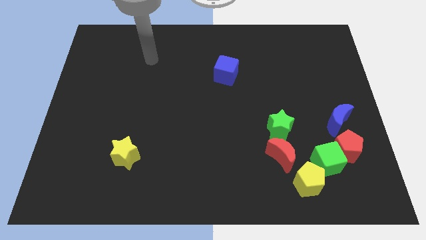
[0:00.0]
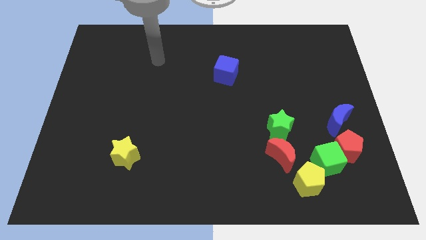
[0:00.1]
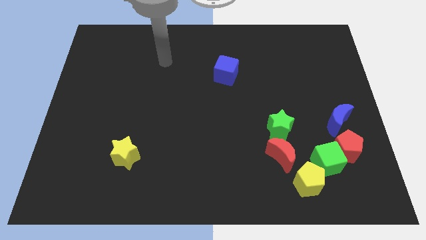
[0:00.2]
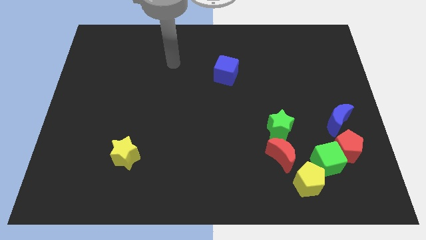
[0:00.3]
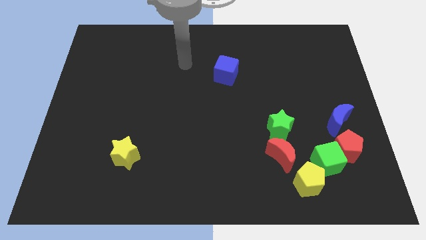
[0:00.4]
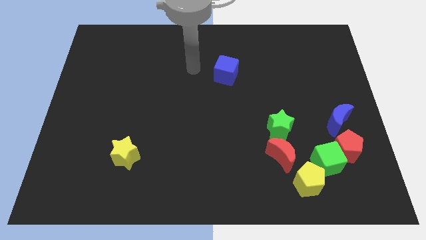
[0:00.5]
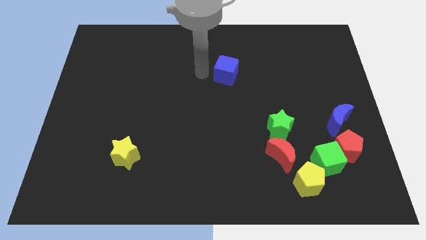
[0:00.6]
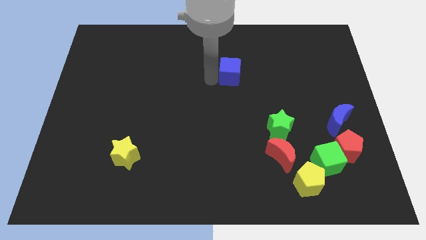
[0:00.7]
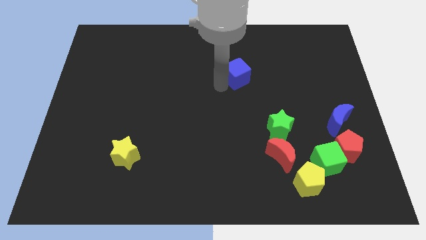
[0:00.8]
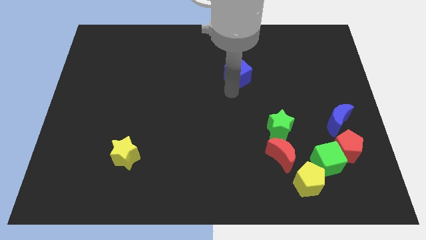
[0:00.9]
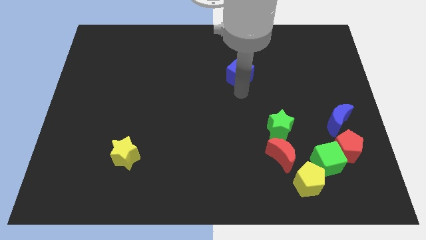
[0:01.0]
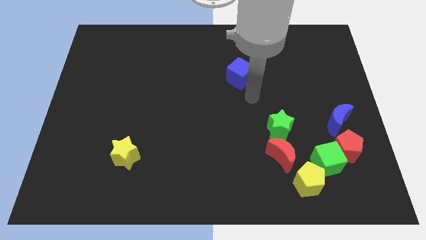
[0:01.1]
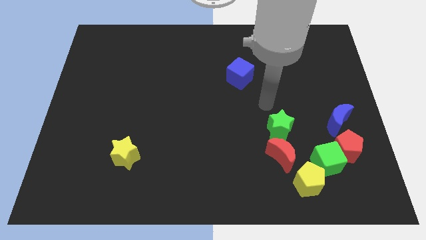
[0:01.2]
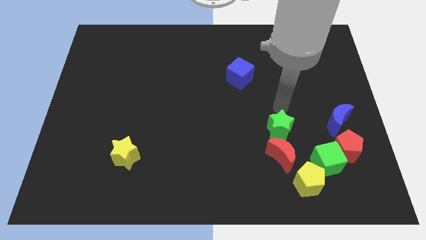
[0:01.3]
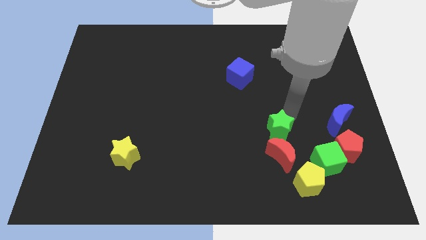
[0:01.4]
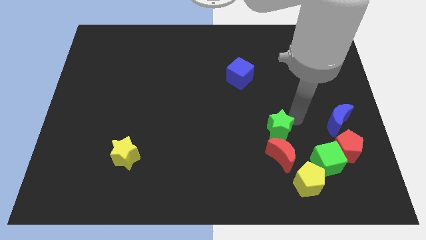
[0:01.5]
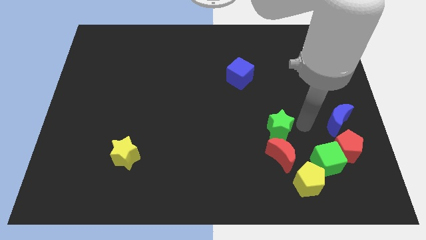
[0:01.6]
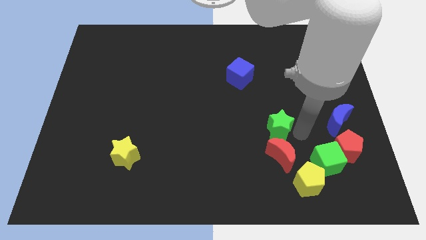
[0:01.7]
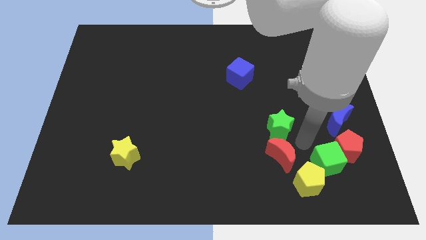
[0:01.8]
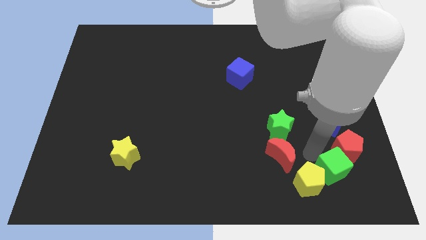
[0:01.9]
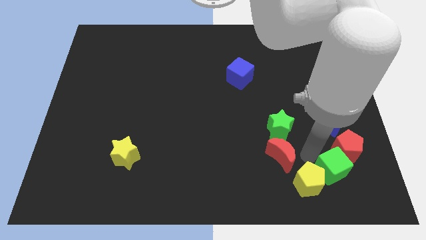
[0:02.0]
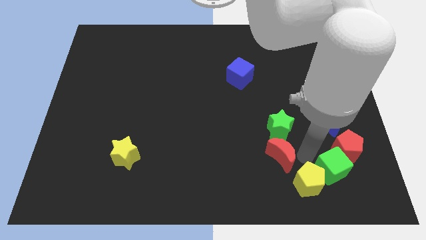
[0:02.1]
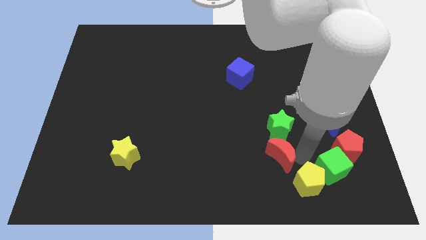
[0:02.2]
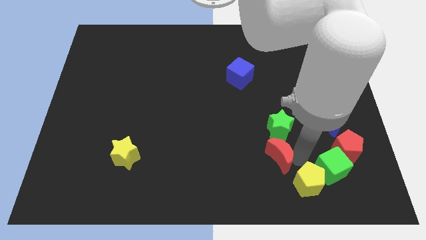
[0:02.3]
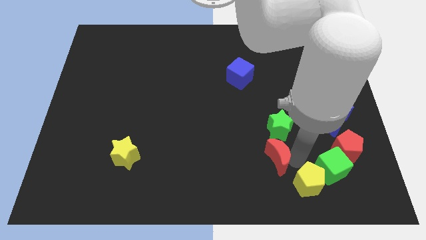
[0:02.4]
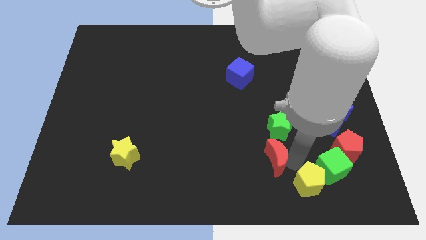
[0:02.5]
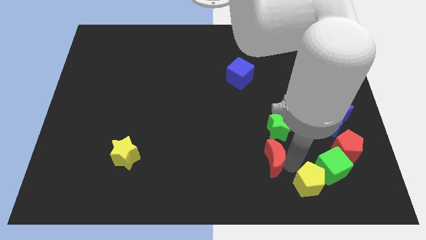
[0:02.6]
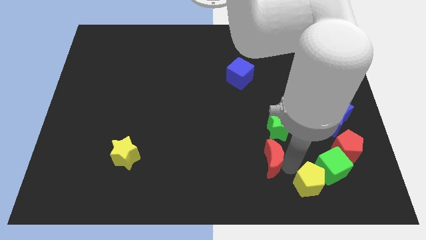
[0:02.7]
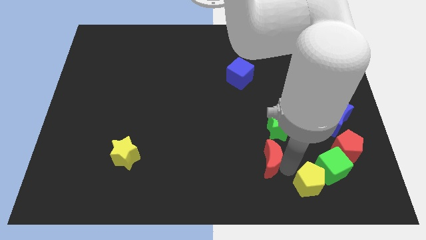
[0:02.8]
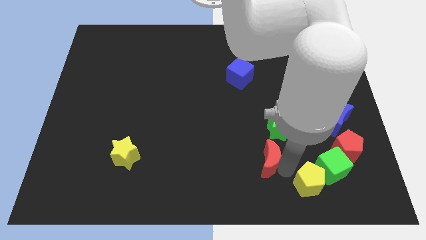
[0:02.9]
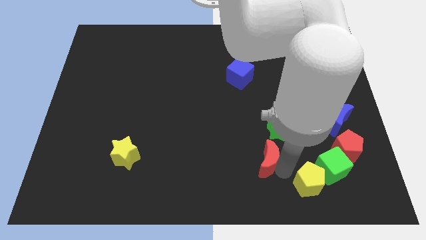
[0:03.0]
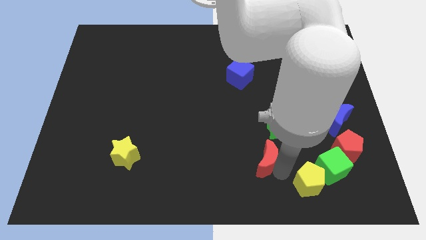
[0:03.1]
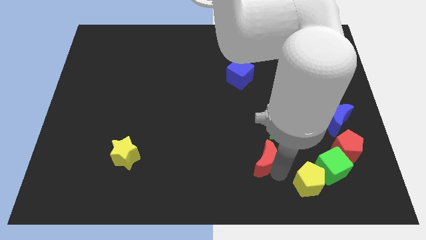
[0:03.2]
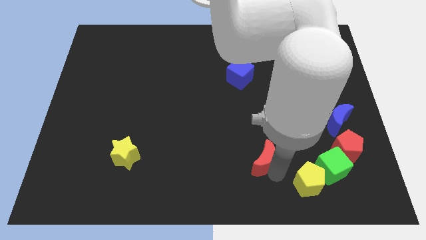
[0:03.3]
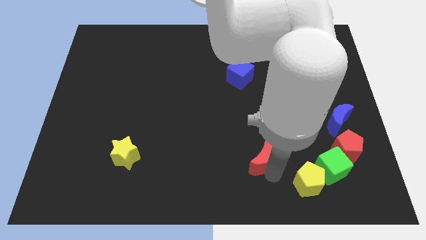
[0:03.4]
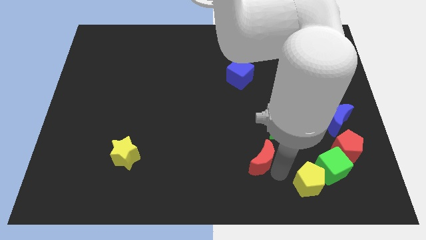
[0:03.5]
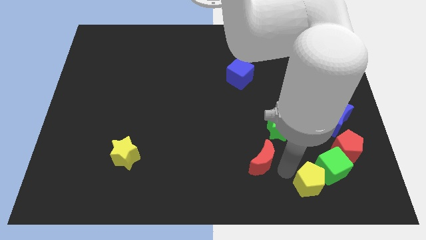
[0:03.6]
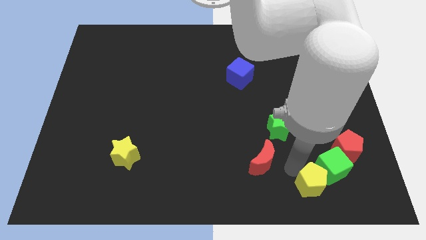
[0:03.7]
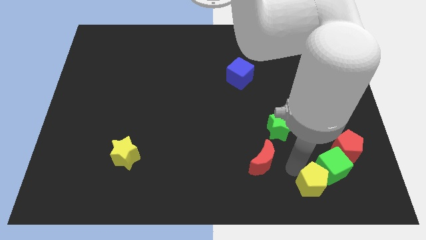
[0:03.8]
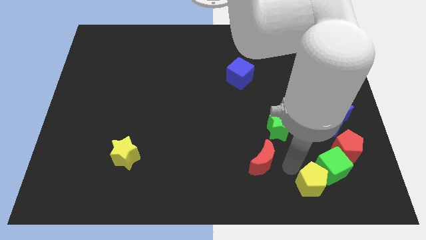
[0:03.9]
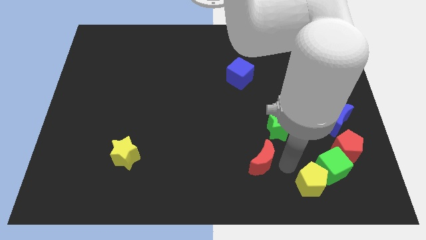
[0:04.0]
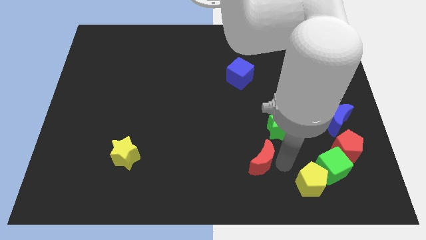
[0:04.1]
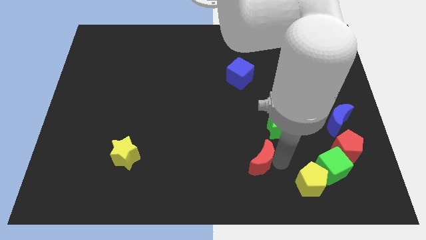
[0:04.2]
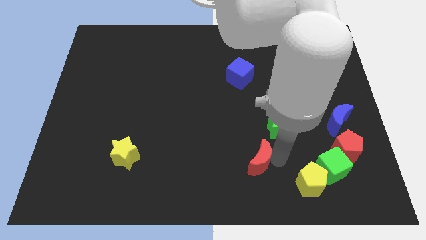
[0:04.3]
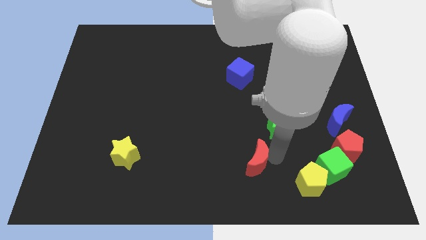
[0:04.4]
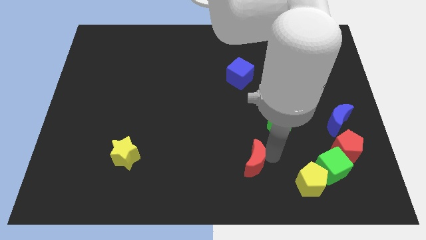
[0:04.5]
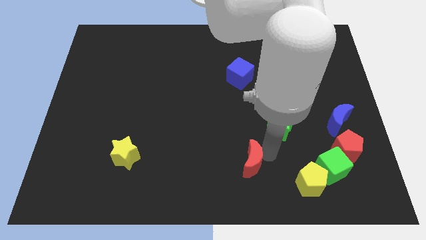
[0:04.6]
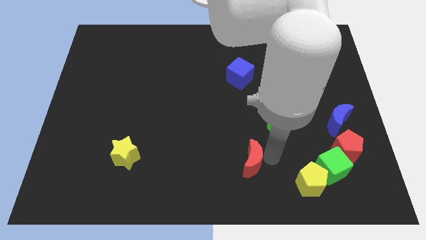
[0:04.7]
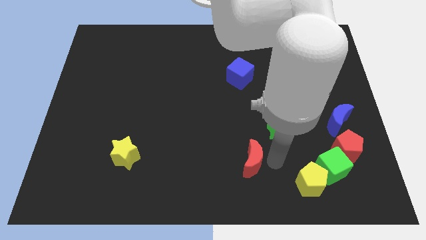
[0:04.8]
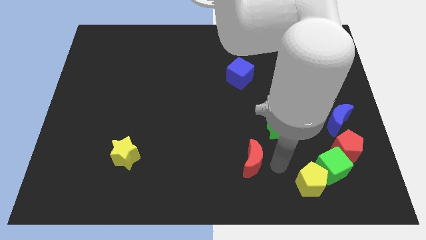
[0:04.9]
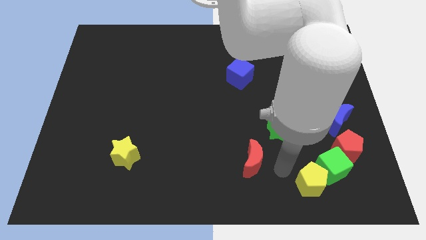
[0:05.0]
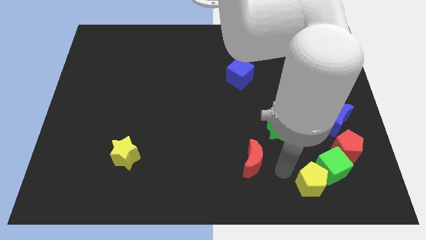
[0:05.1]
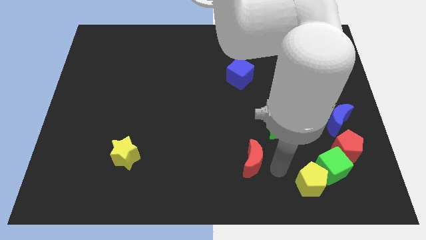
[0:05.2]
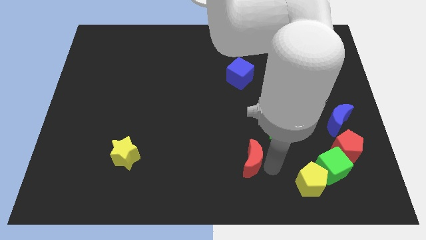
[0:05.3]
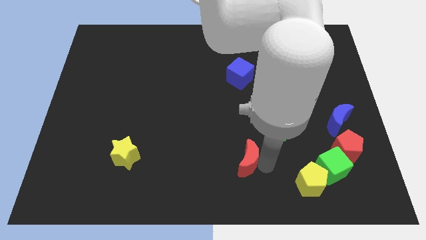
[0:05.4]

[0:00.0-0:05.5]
slightly move the red moon left

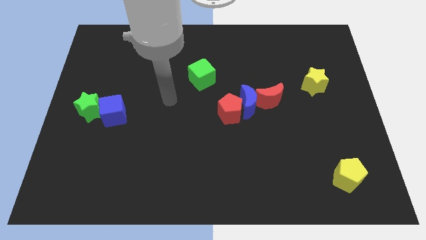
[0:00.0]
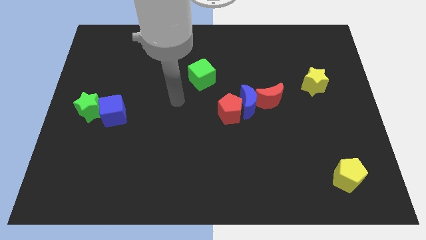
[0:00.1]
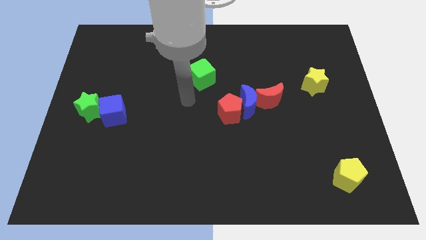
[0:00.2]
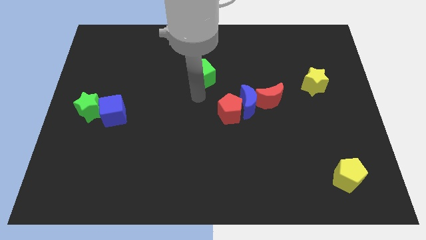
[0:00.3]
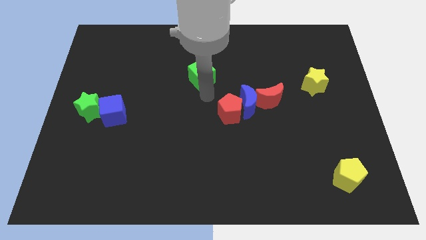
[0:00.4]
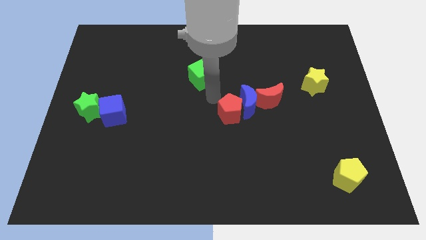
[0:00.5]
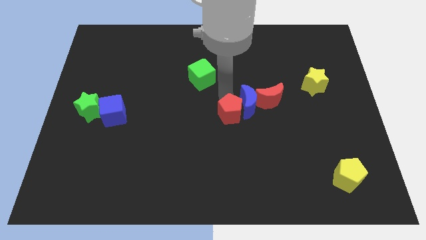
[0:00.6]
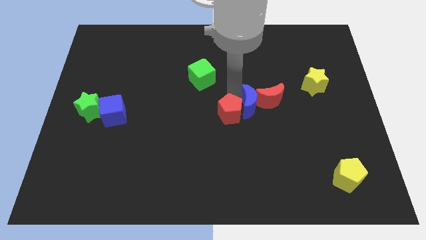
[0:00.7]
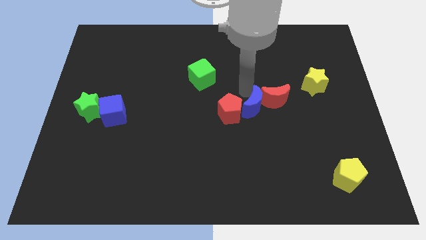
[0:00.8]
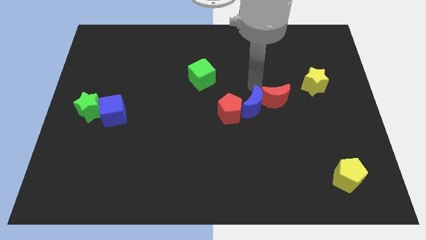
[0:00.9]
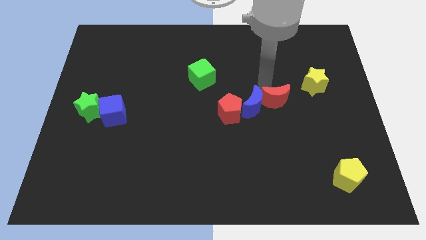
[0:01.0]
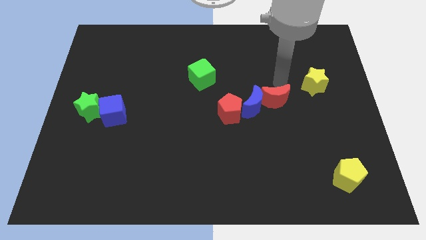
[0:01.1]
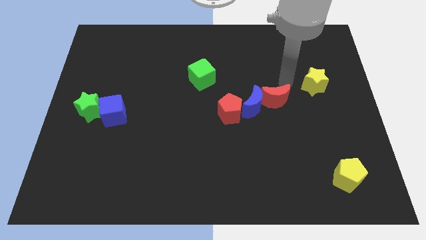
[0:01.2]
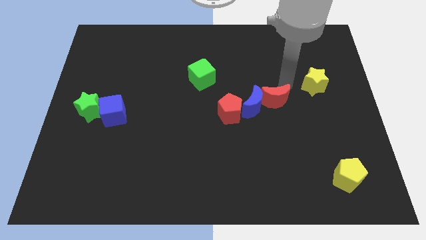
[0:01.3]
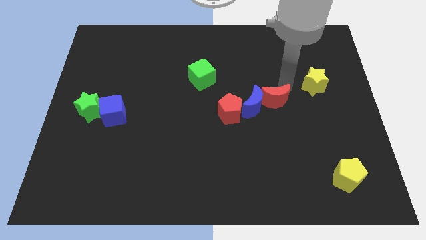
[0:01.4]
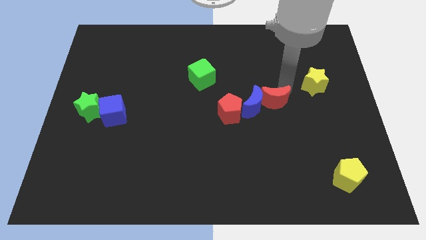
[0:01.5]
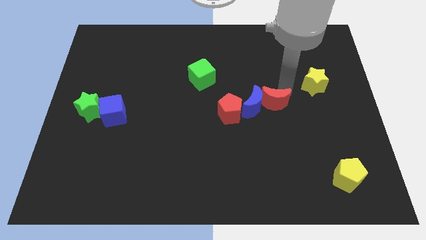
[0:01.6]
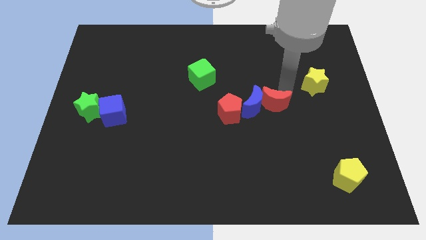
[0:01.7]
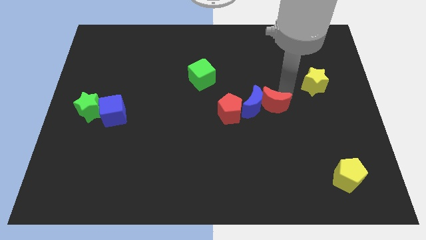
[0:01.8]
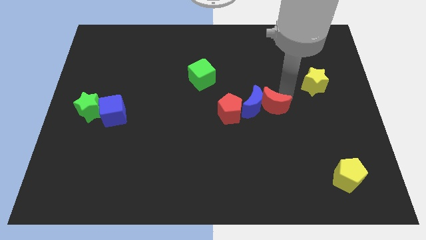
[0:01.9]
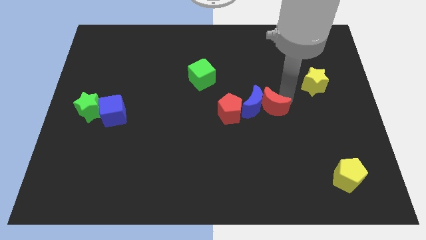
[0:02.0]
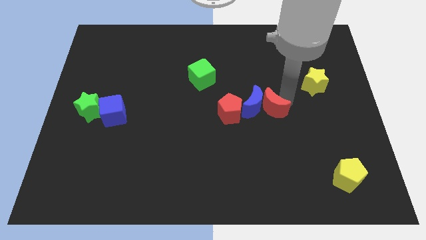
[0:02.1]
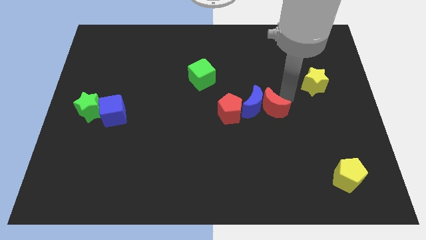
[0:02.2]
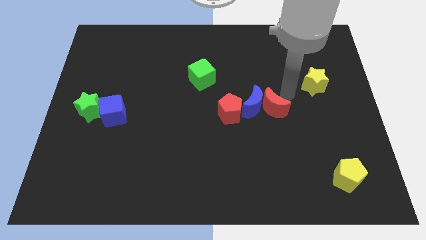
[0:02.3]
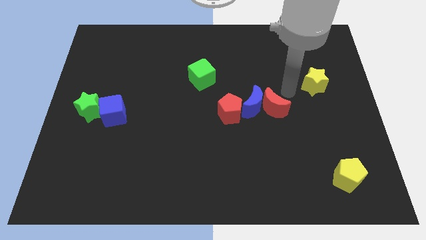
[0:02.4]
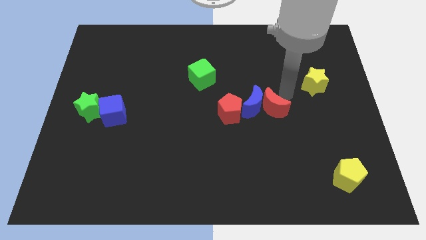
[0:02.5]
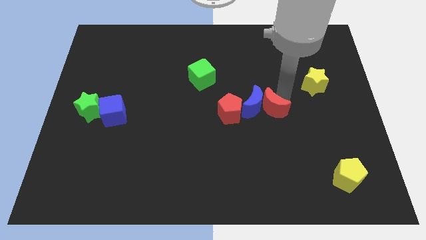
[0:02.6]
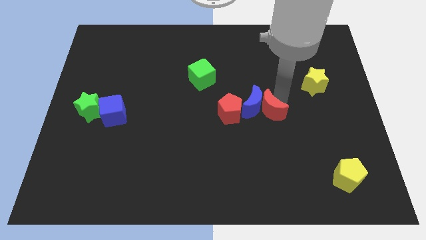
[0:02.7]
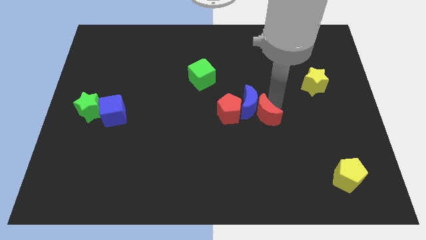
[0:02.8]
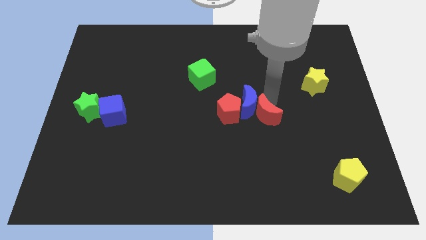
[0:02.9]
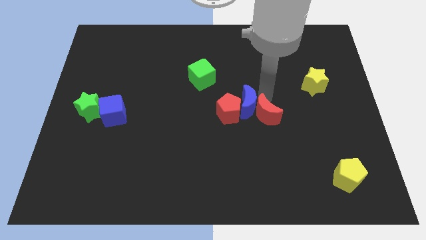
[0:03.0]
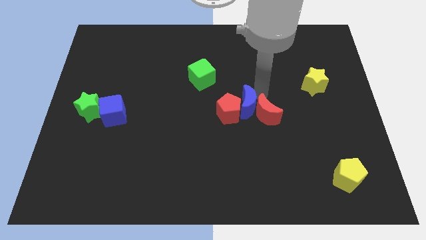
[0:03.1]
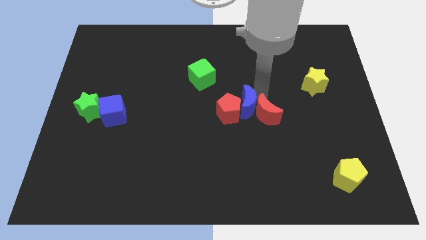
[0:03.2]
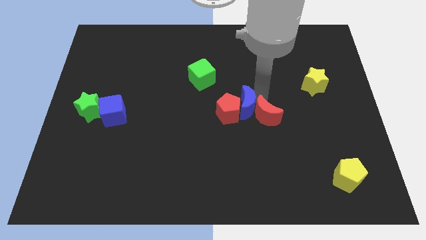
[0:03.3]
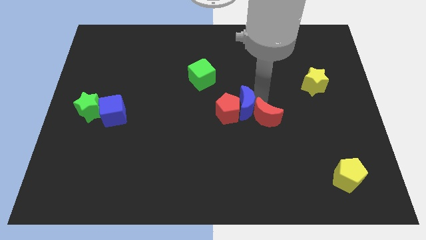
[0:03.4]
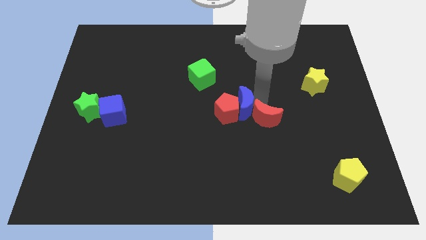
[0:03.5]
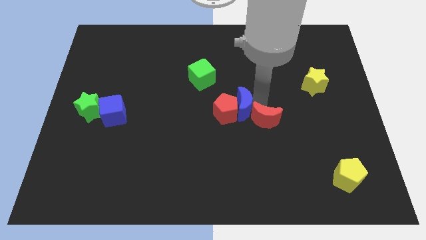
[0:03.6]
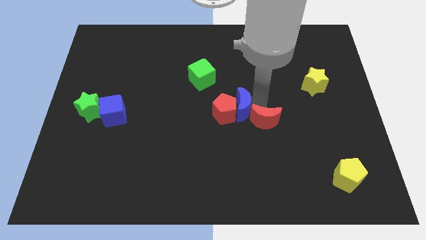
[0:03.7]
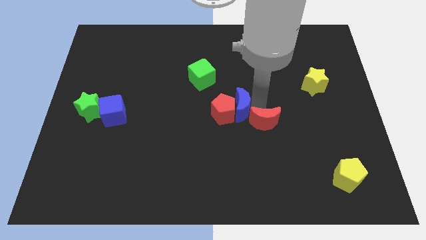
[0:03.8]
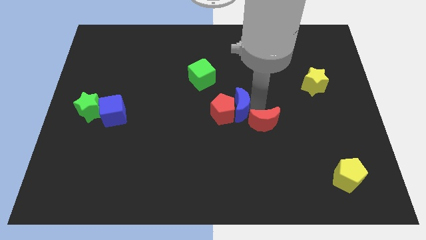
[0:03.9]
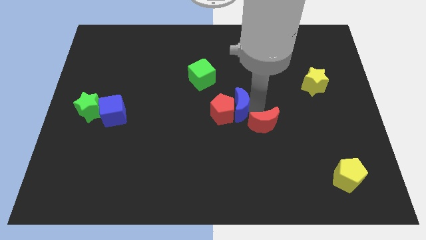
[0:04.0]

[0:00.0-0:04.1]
slide the red moon slightly down
